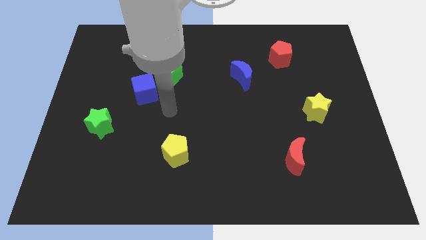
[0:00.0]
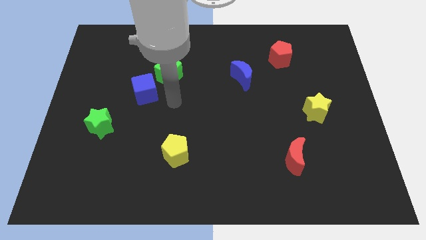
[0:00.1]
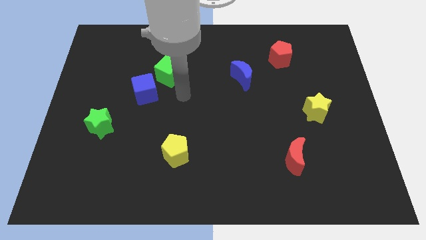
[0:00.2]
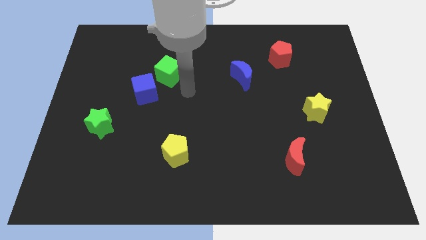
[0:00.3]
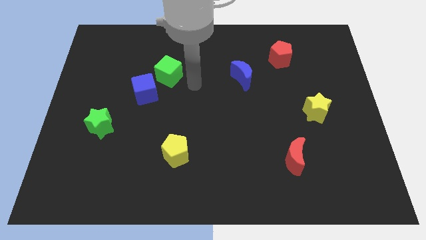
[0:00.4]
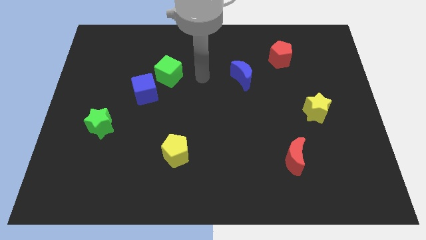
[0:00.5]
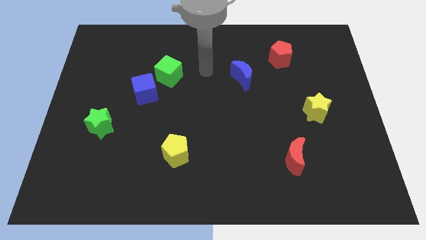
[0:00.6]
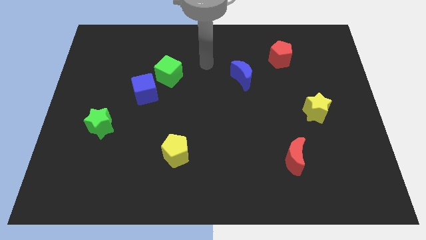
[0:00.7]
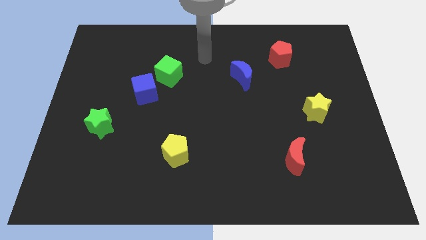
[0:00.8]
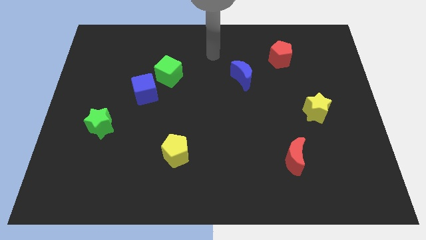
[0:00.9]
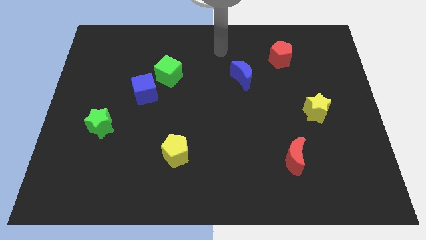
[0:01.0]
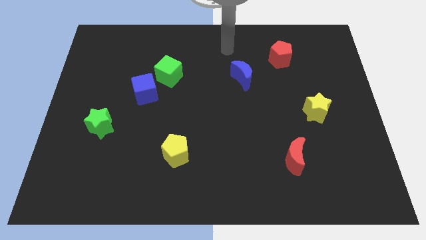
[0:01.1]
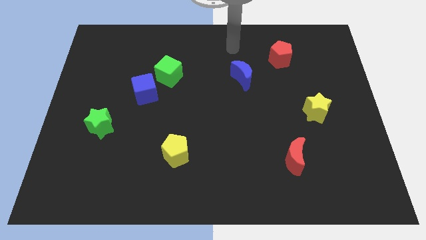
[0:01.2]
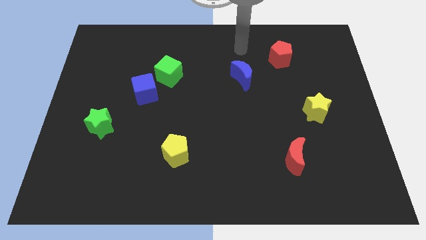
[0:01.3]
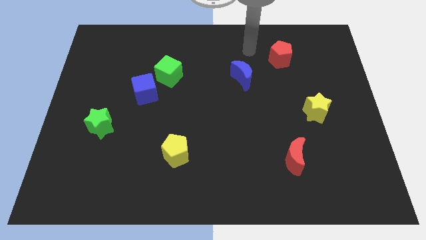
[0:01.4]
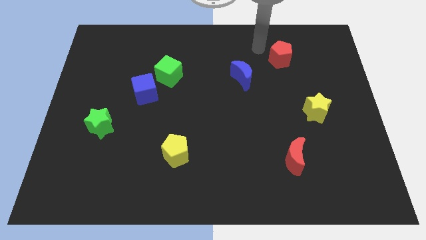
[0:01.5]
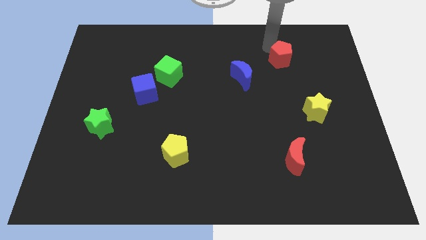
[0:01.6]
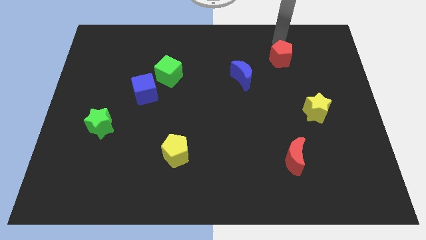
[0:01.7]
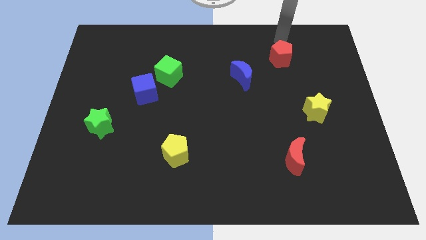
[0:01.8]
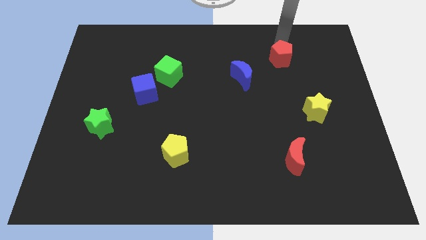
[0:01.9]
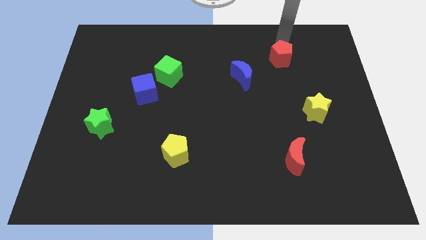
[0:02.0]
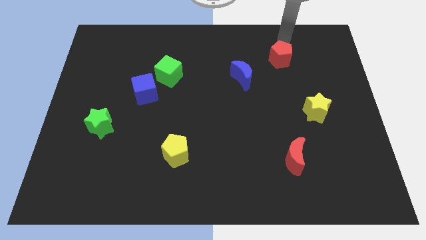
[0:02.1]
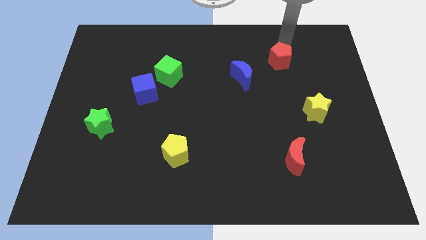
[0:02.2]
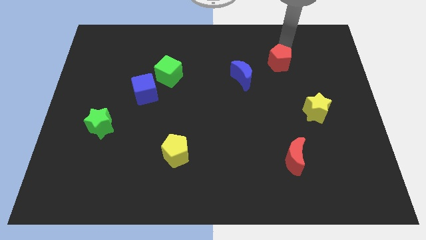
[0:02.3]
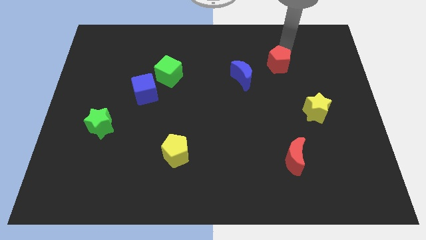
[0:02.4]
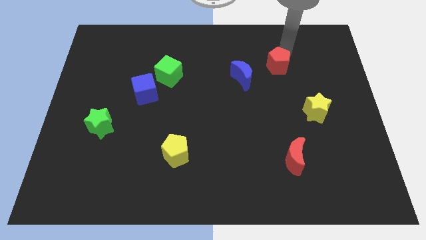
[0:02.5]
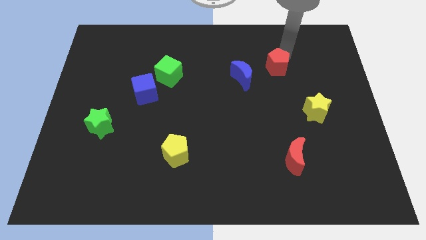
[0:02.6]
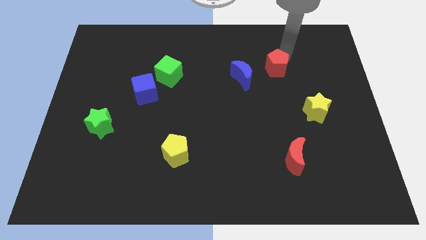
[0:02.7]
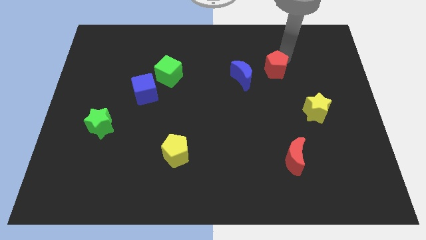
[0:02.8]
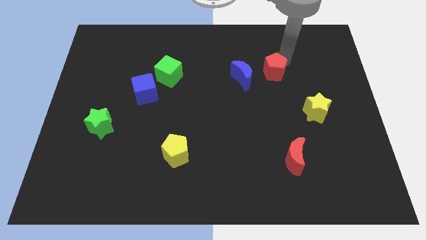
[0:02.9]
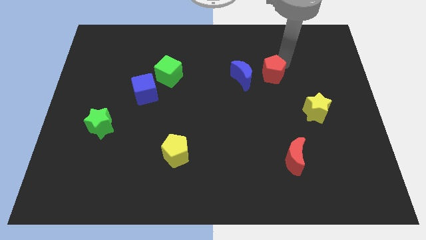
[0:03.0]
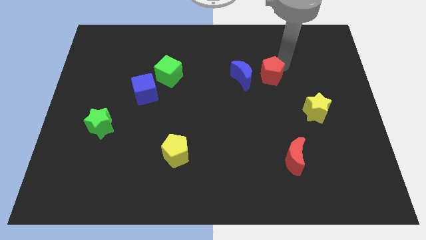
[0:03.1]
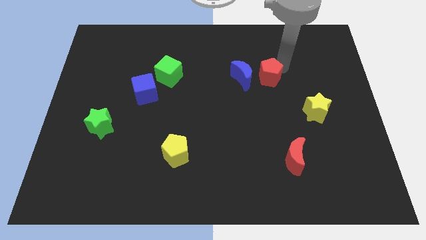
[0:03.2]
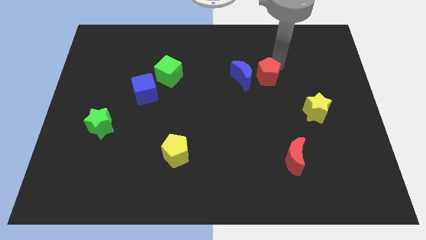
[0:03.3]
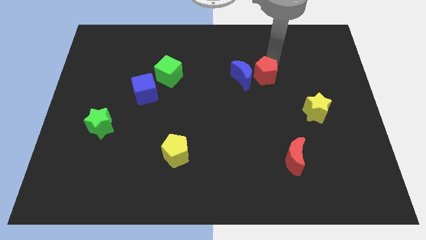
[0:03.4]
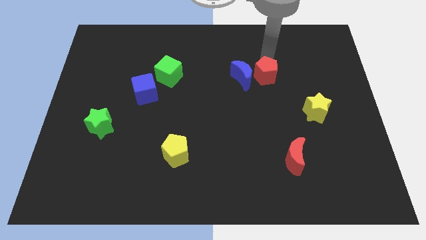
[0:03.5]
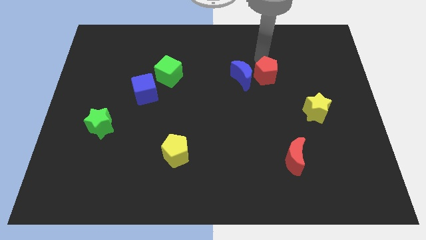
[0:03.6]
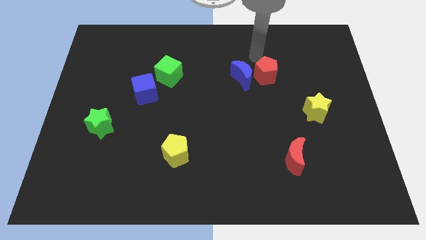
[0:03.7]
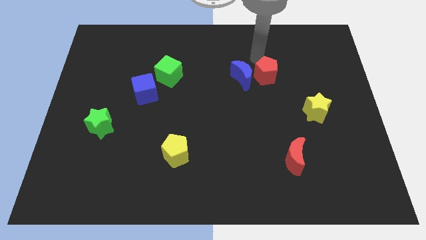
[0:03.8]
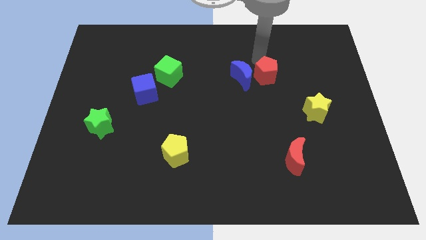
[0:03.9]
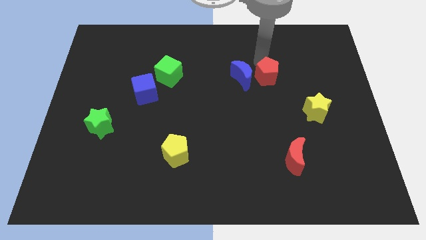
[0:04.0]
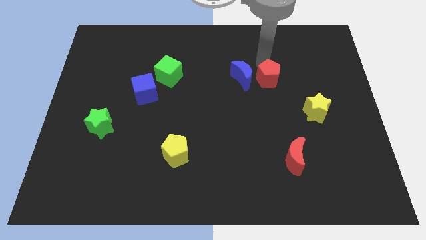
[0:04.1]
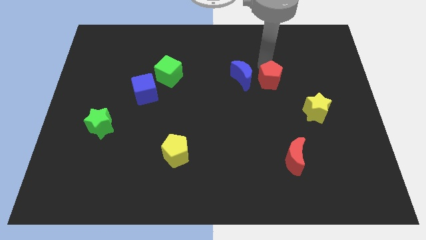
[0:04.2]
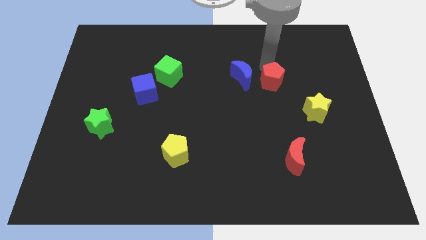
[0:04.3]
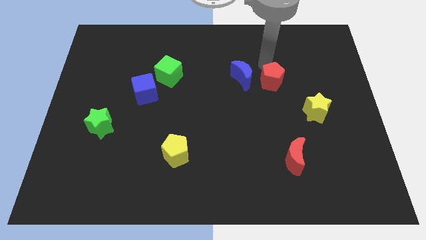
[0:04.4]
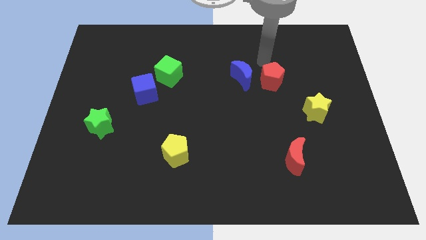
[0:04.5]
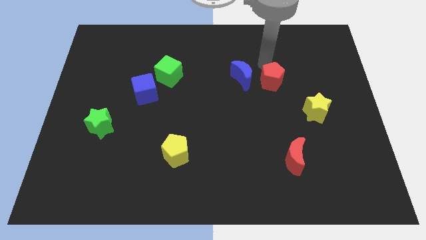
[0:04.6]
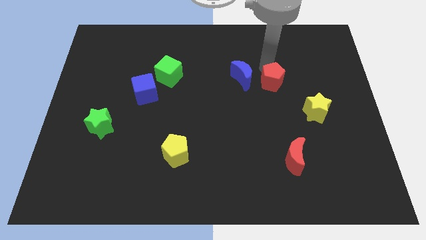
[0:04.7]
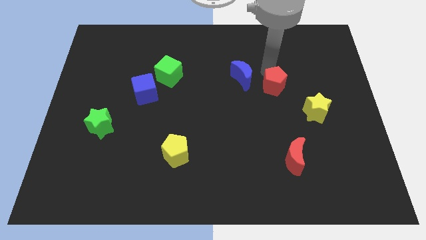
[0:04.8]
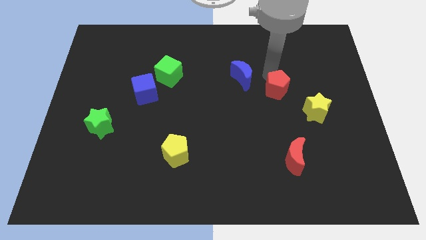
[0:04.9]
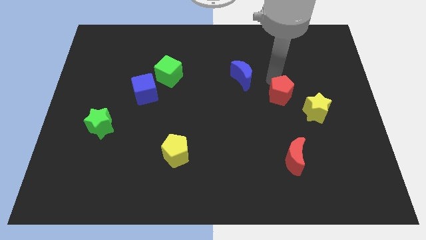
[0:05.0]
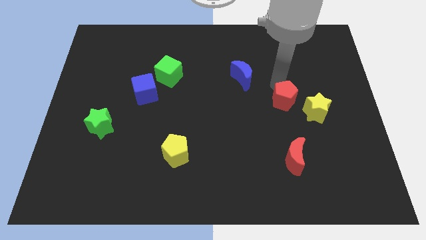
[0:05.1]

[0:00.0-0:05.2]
slide the red pentagon just left of the yellow star

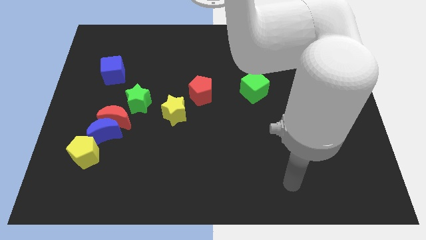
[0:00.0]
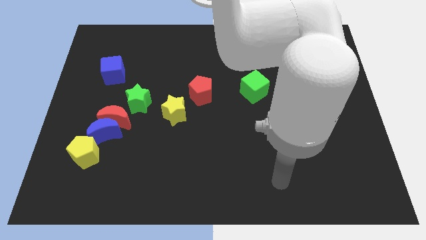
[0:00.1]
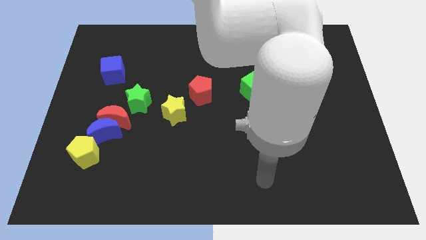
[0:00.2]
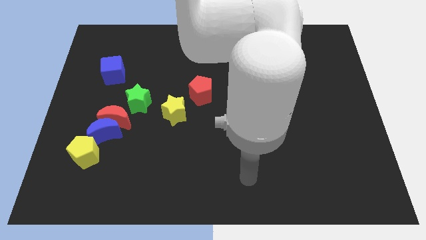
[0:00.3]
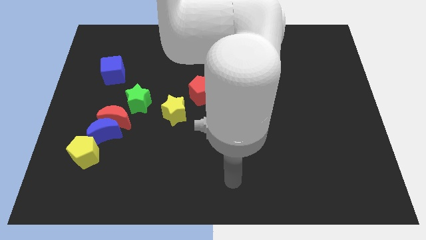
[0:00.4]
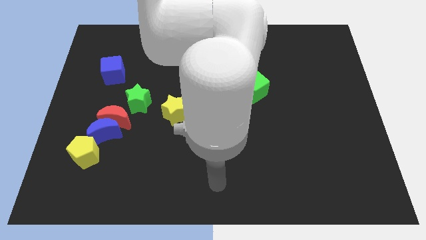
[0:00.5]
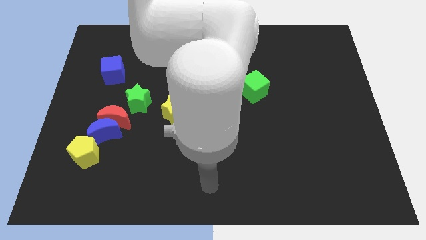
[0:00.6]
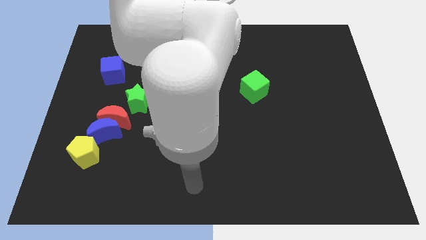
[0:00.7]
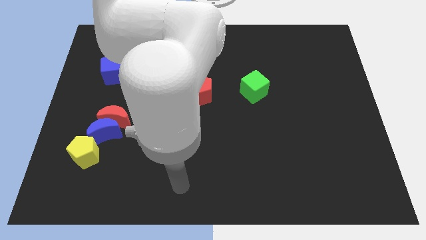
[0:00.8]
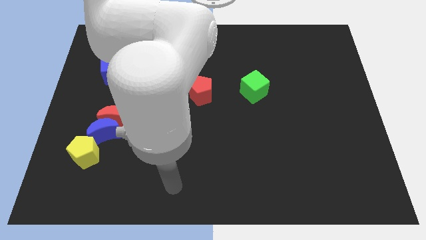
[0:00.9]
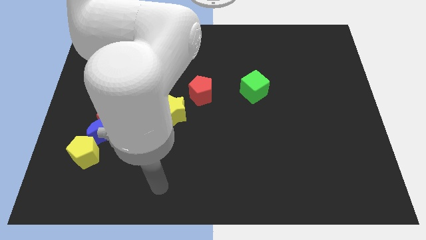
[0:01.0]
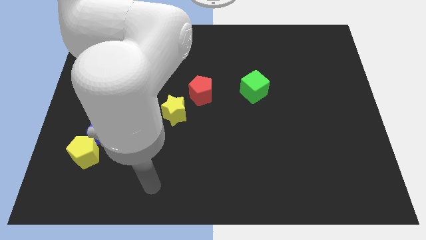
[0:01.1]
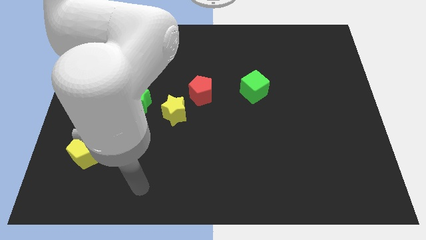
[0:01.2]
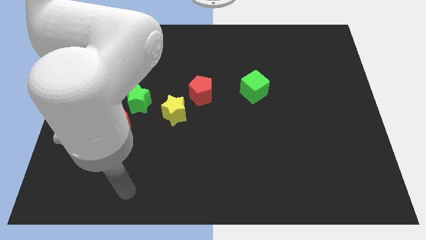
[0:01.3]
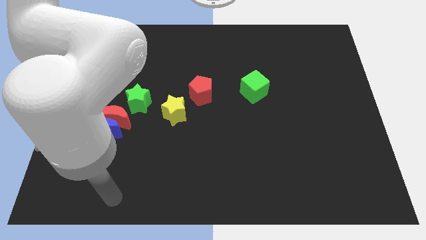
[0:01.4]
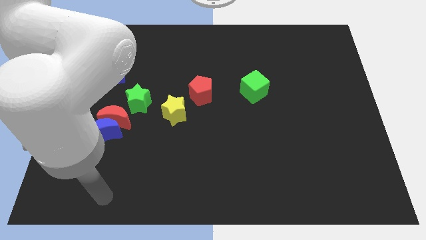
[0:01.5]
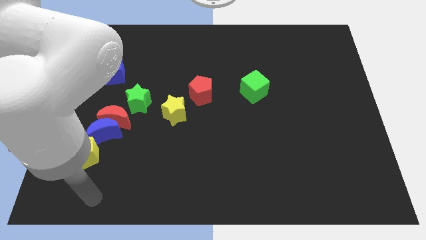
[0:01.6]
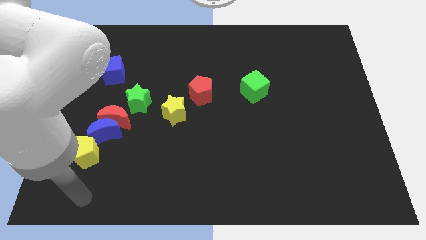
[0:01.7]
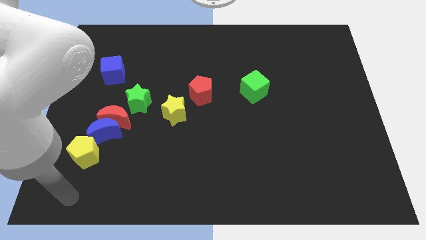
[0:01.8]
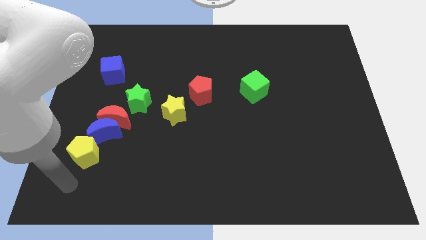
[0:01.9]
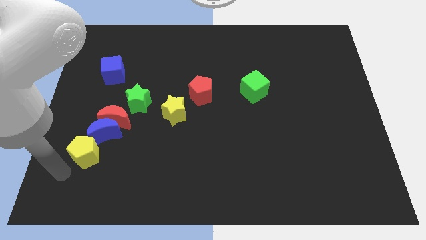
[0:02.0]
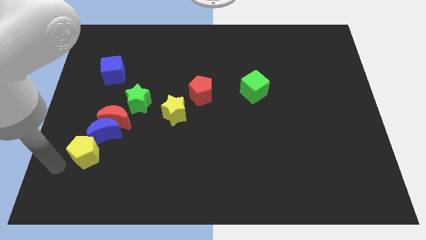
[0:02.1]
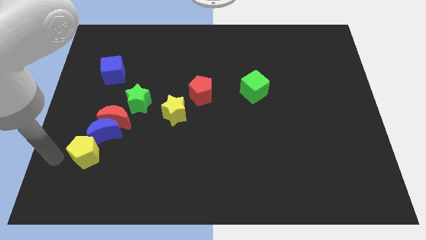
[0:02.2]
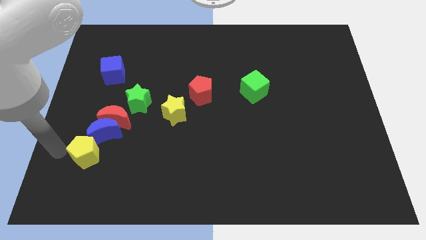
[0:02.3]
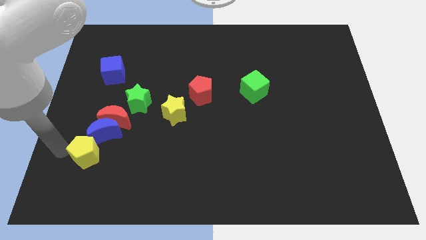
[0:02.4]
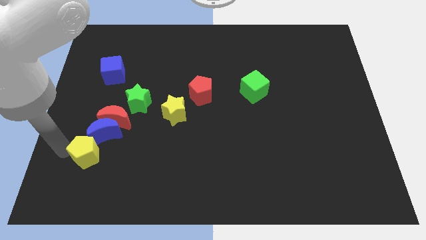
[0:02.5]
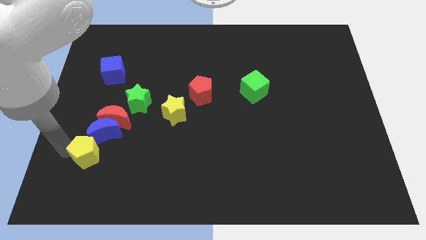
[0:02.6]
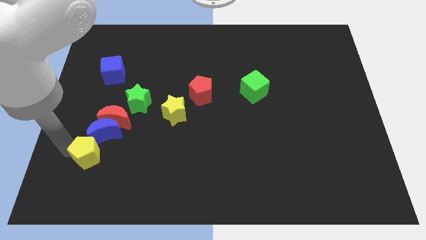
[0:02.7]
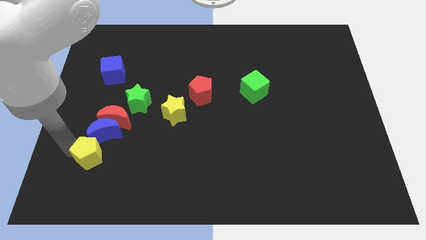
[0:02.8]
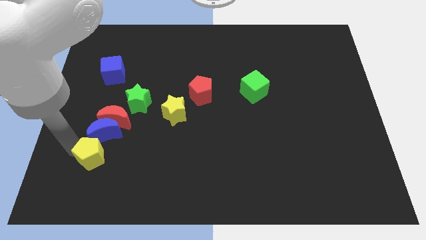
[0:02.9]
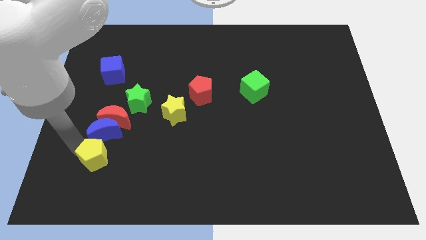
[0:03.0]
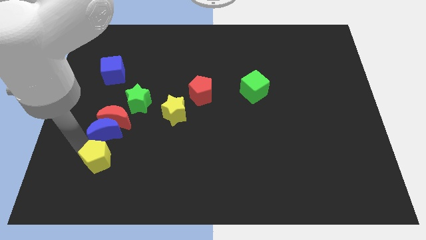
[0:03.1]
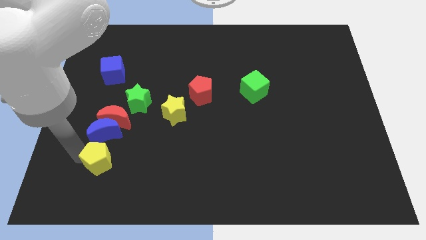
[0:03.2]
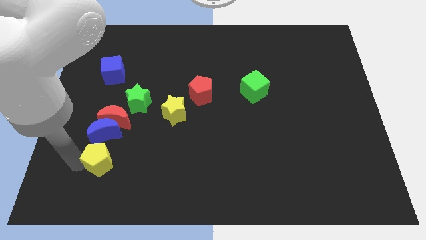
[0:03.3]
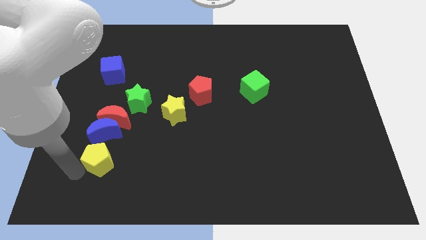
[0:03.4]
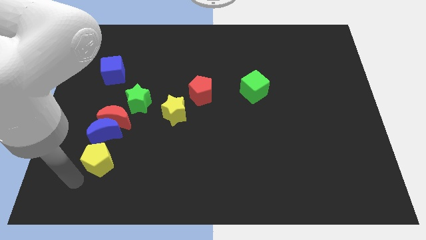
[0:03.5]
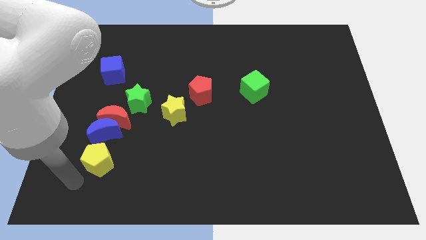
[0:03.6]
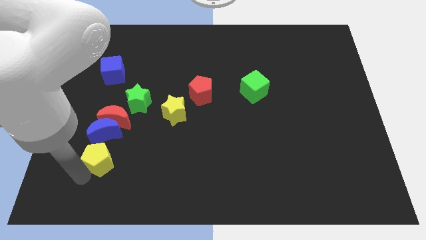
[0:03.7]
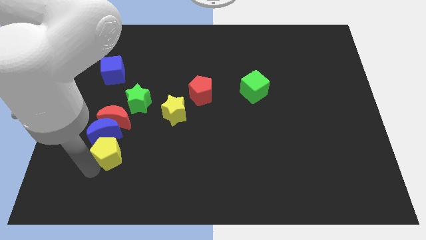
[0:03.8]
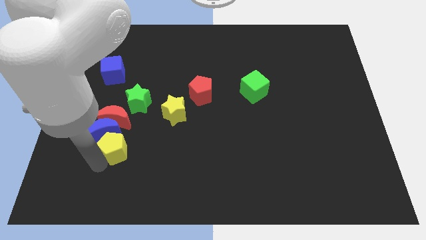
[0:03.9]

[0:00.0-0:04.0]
slide the yellow pentagon to the bottom of the green star
